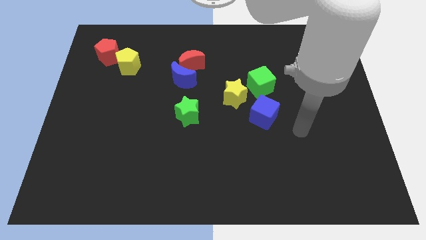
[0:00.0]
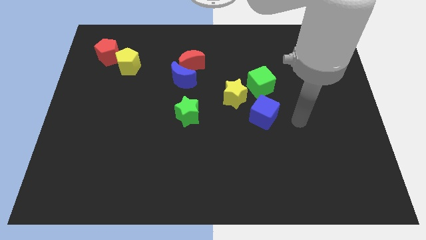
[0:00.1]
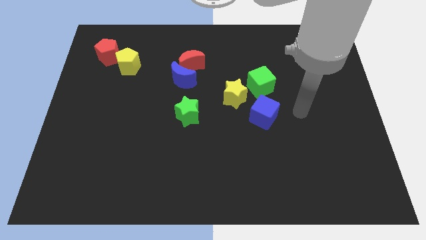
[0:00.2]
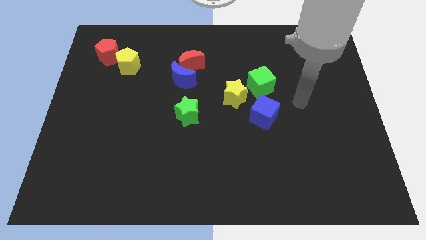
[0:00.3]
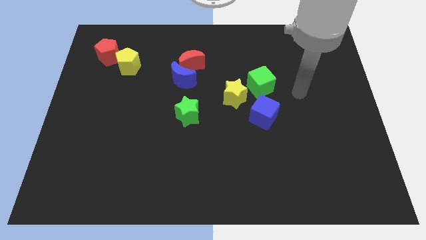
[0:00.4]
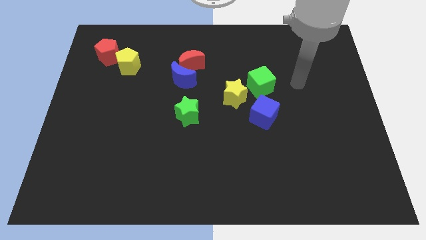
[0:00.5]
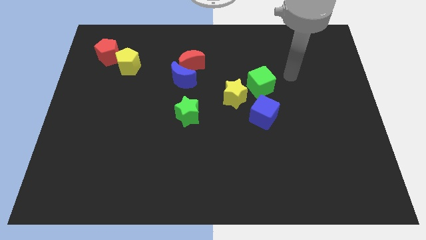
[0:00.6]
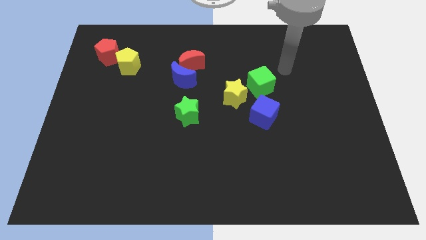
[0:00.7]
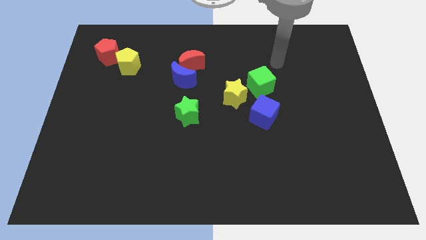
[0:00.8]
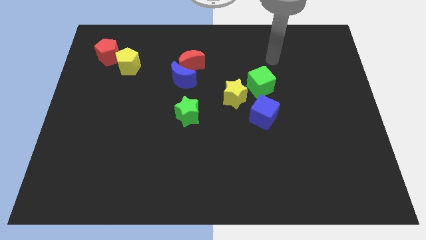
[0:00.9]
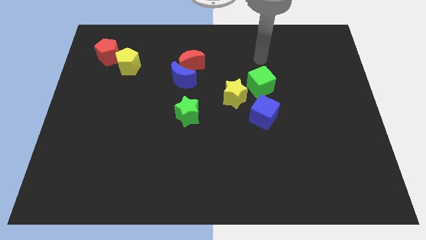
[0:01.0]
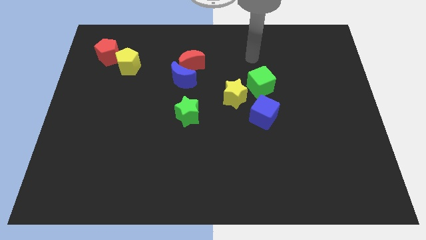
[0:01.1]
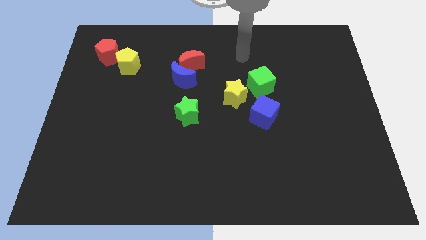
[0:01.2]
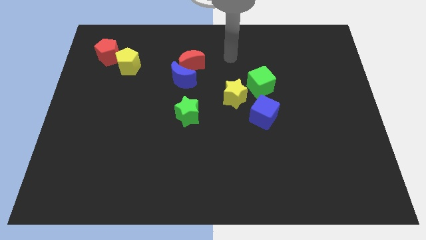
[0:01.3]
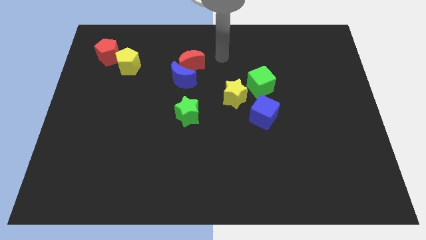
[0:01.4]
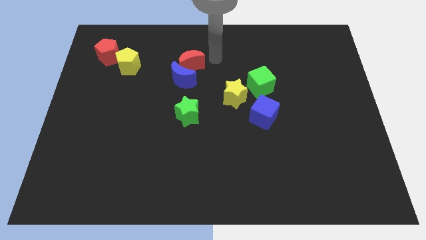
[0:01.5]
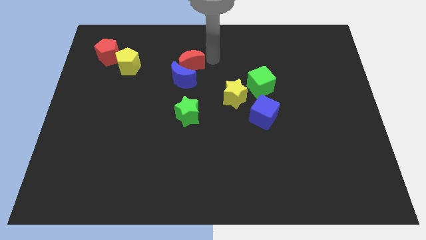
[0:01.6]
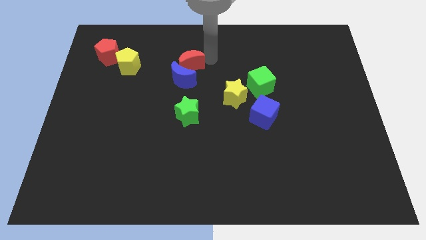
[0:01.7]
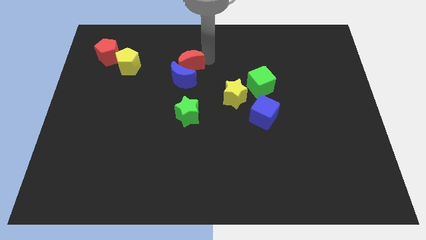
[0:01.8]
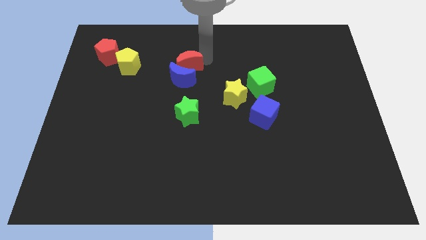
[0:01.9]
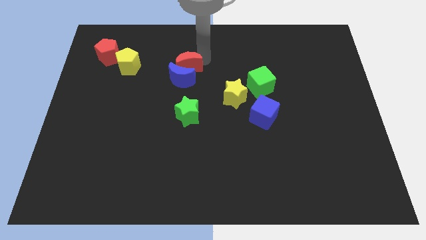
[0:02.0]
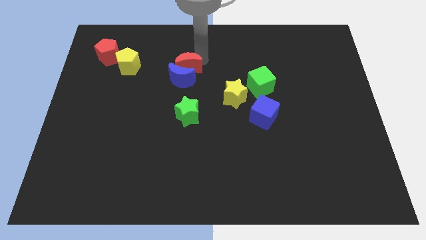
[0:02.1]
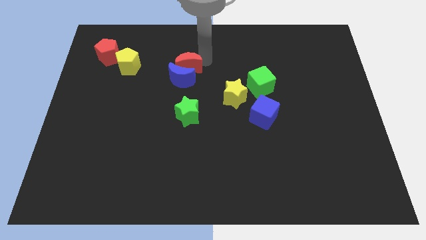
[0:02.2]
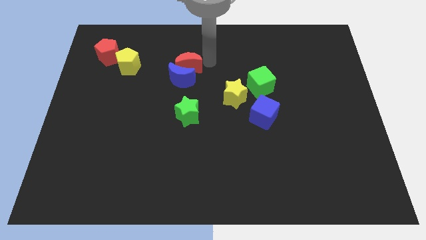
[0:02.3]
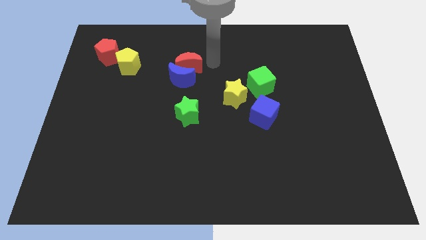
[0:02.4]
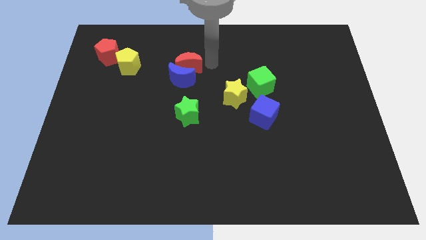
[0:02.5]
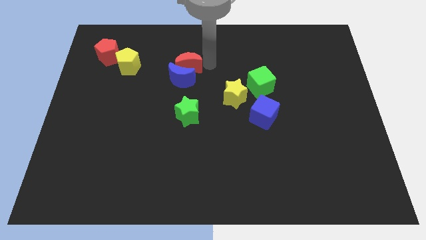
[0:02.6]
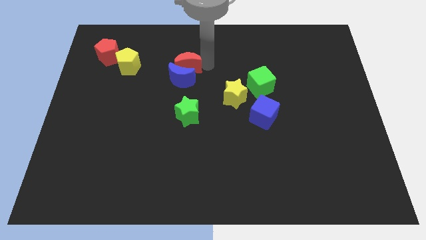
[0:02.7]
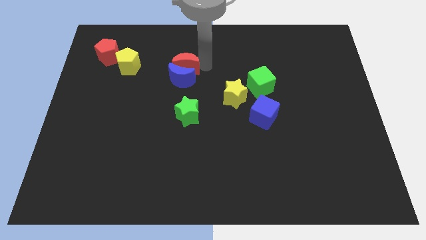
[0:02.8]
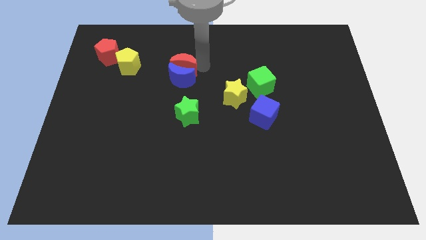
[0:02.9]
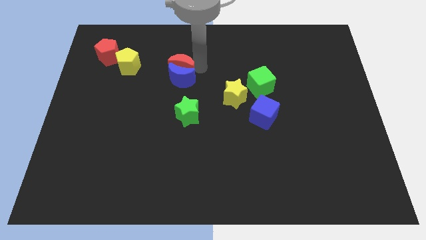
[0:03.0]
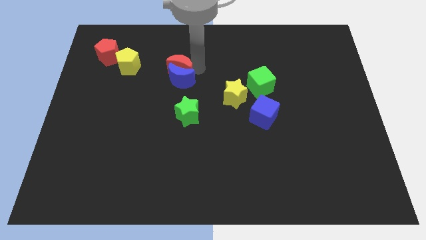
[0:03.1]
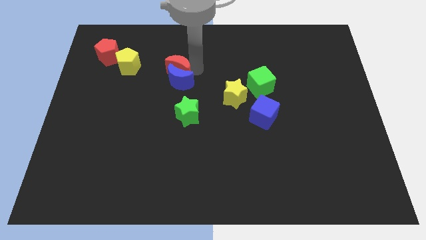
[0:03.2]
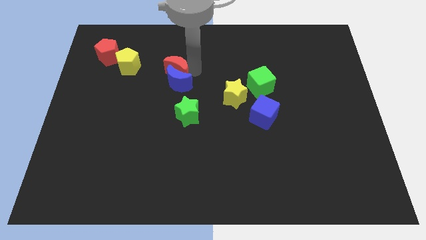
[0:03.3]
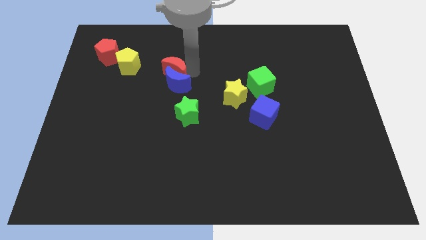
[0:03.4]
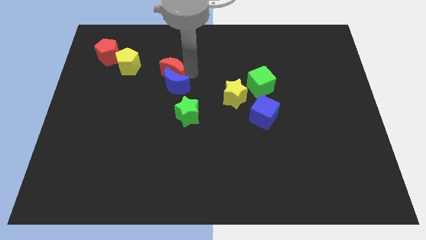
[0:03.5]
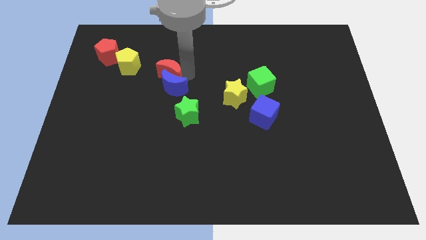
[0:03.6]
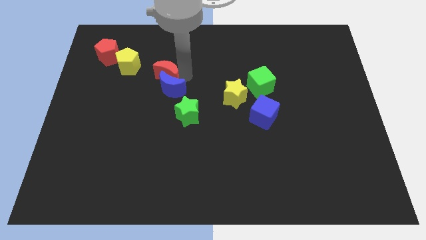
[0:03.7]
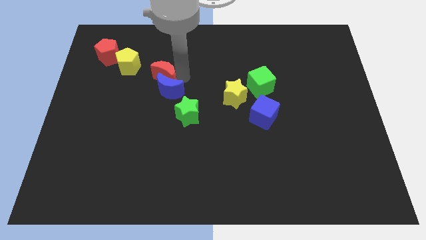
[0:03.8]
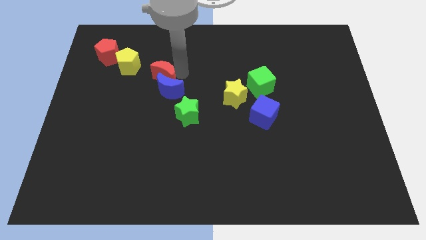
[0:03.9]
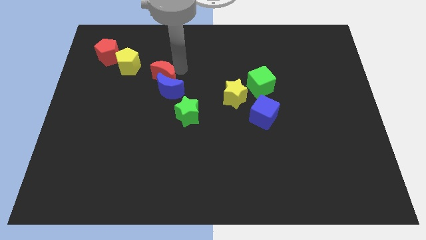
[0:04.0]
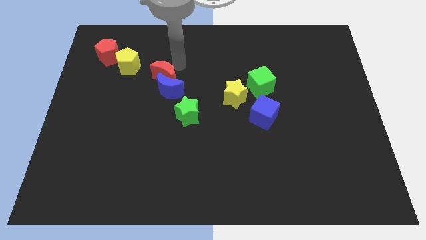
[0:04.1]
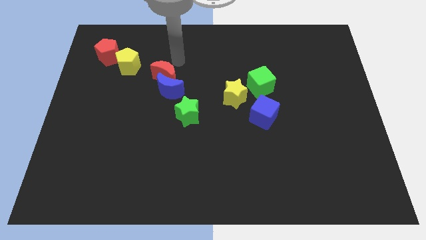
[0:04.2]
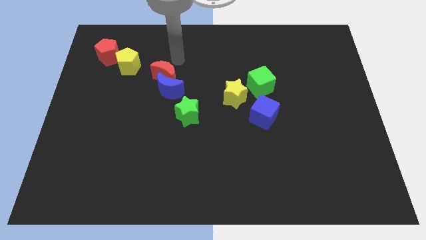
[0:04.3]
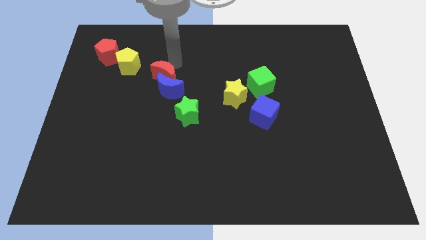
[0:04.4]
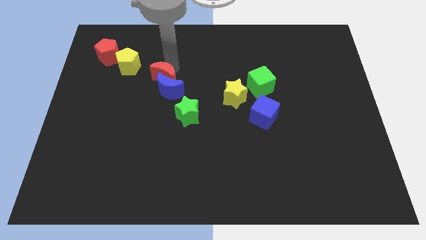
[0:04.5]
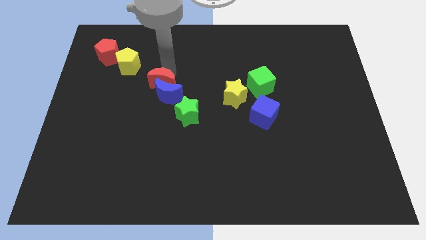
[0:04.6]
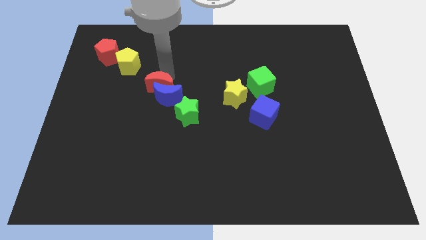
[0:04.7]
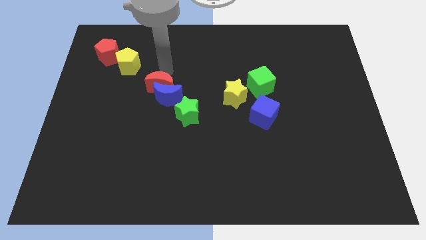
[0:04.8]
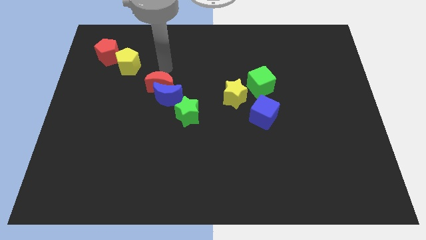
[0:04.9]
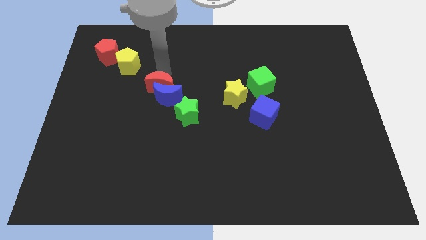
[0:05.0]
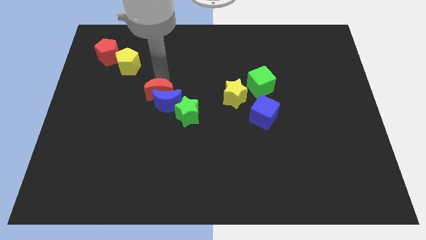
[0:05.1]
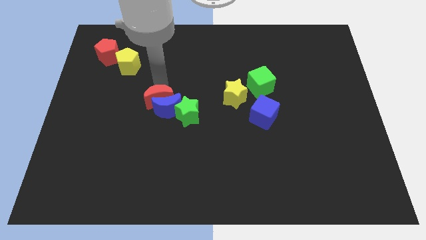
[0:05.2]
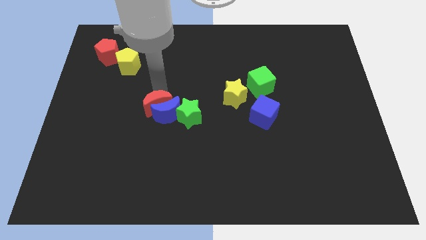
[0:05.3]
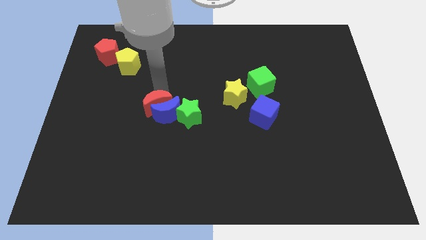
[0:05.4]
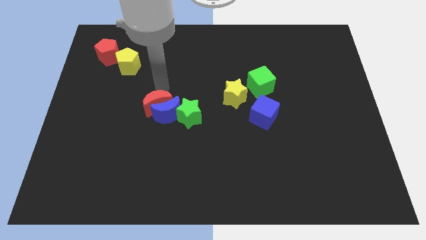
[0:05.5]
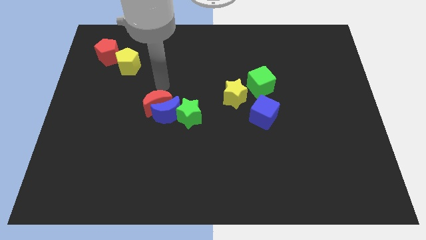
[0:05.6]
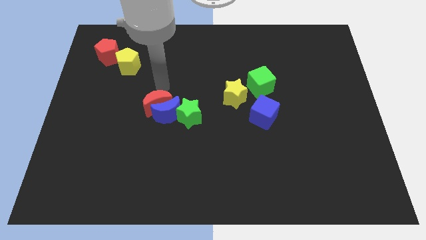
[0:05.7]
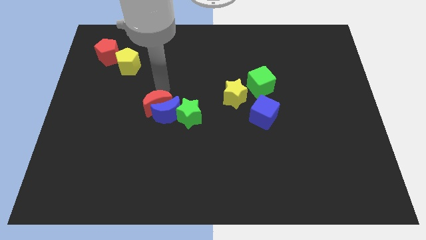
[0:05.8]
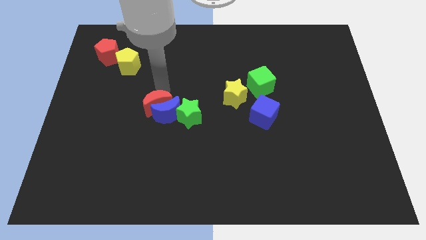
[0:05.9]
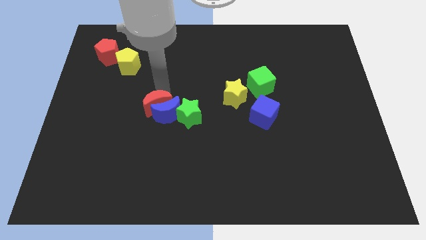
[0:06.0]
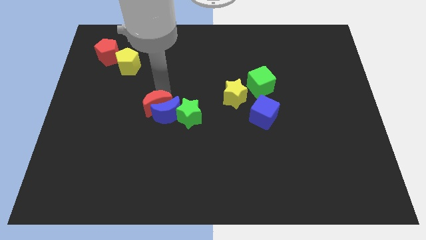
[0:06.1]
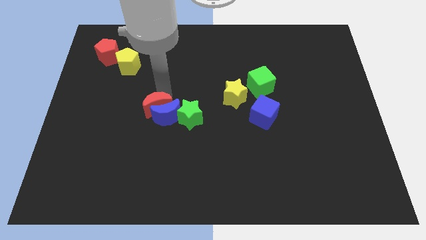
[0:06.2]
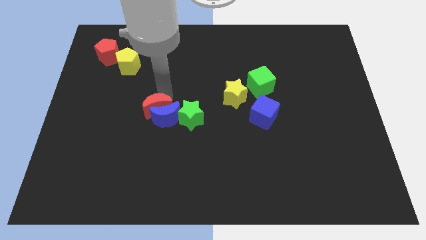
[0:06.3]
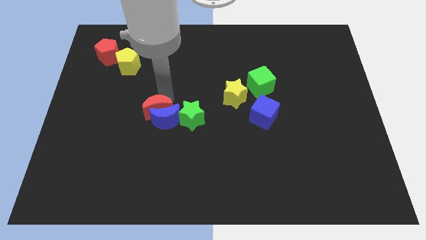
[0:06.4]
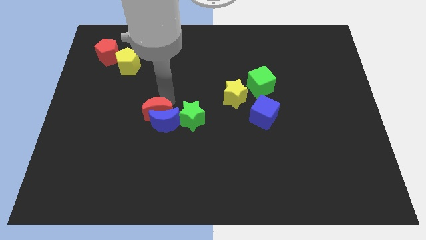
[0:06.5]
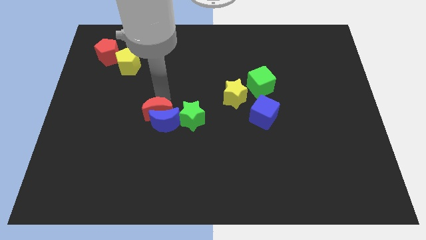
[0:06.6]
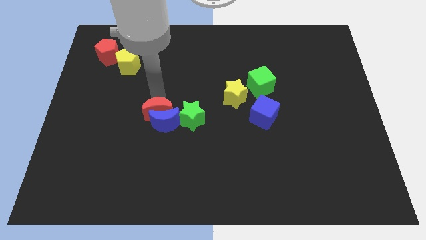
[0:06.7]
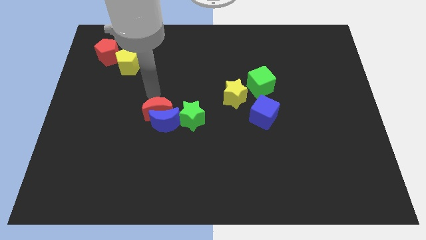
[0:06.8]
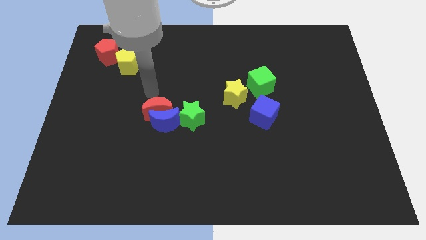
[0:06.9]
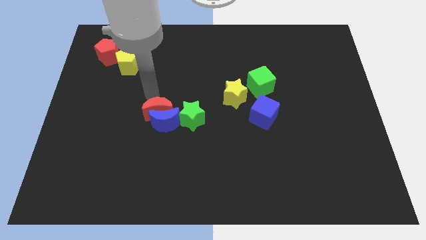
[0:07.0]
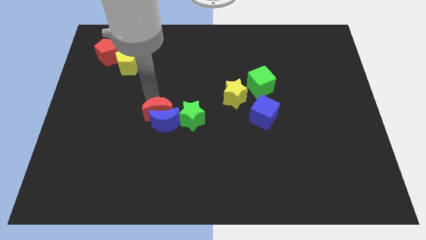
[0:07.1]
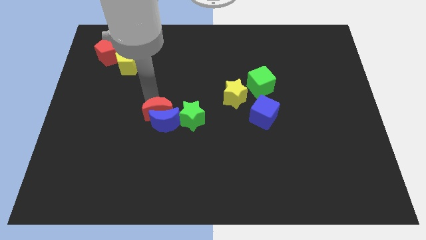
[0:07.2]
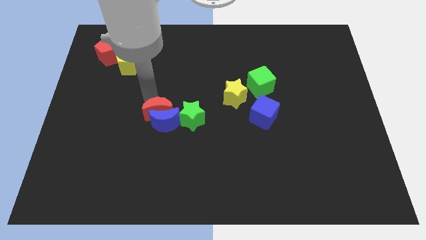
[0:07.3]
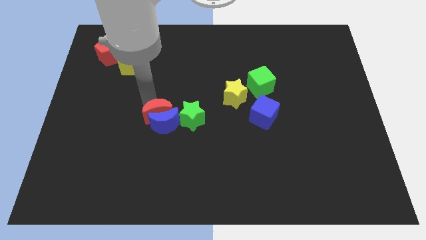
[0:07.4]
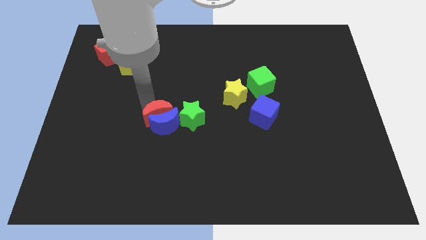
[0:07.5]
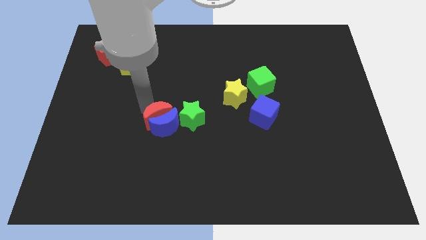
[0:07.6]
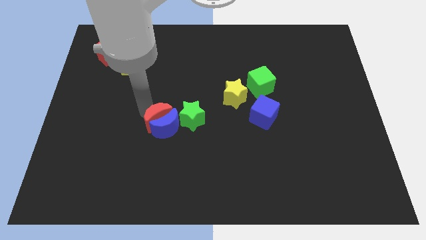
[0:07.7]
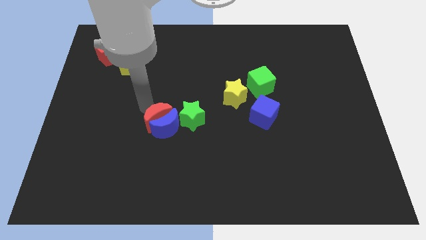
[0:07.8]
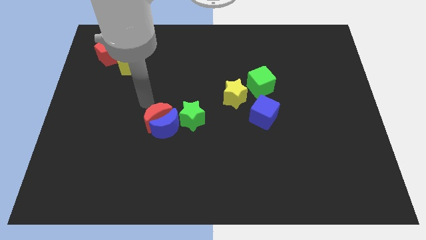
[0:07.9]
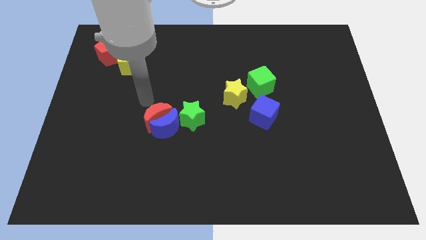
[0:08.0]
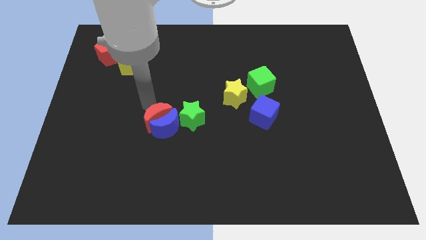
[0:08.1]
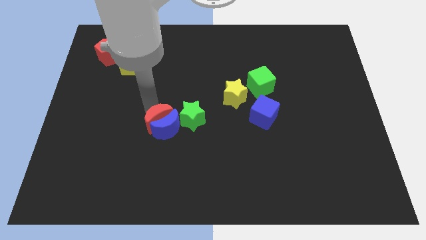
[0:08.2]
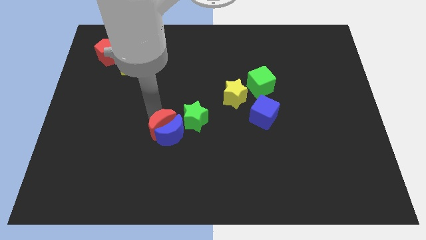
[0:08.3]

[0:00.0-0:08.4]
push the red moon to the bottom left of the green star
